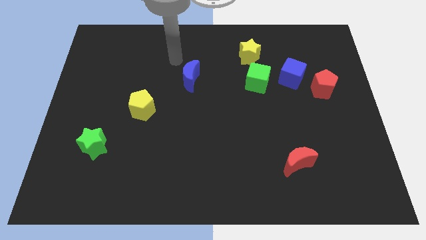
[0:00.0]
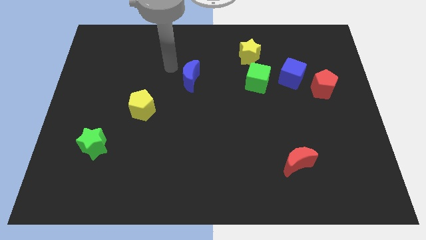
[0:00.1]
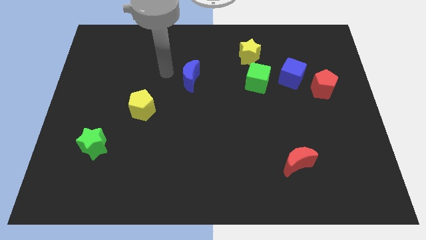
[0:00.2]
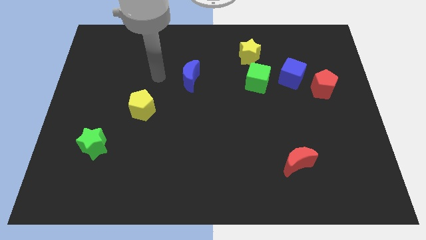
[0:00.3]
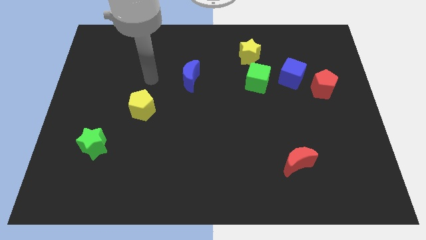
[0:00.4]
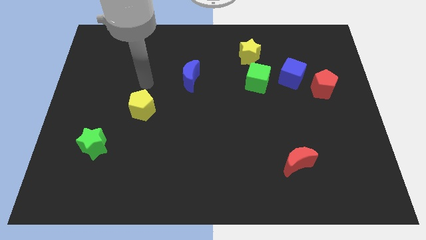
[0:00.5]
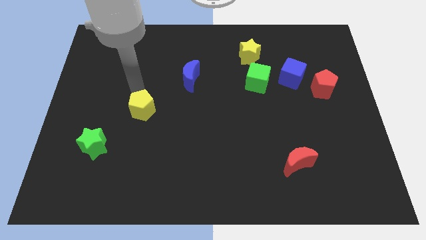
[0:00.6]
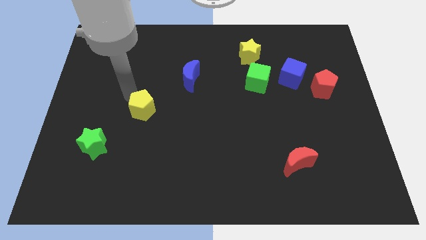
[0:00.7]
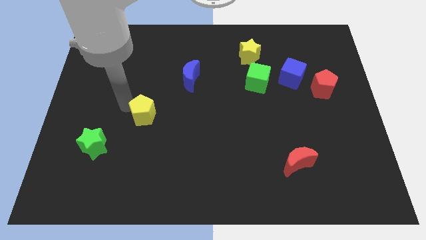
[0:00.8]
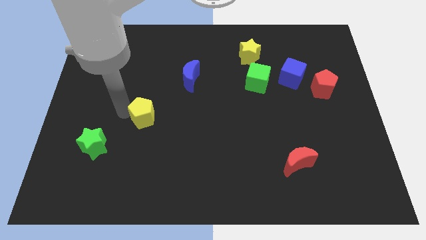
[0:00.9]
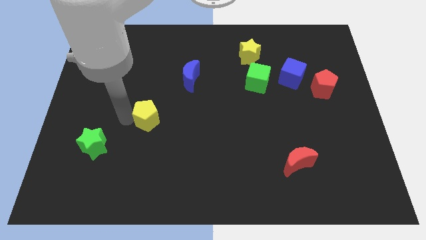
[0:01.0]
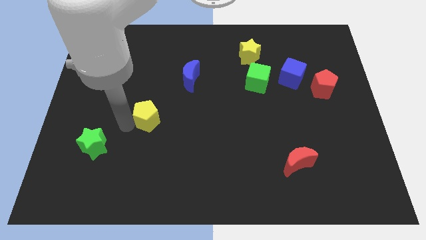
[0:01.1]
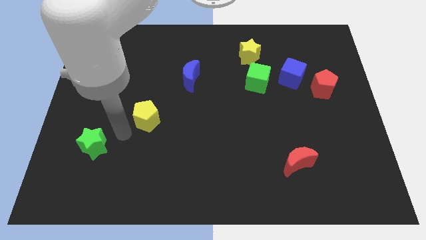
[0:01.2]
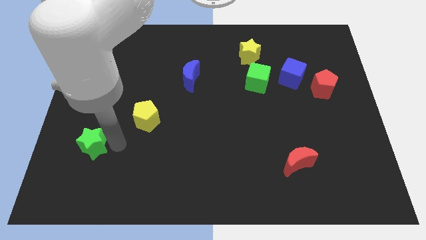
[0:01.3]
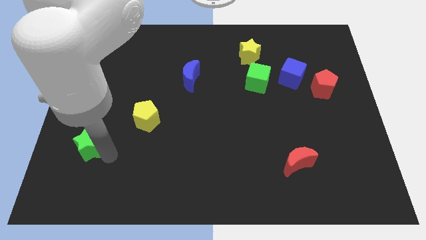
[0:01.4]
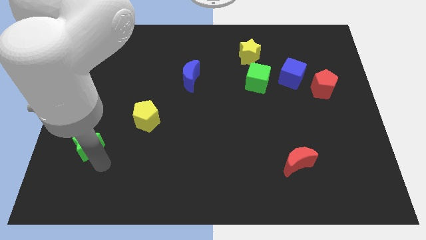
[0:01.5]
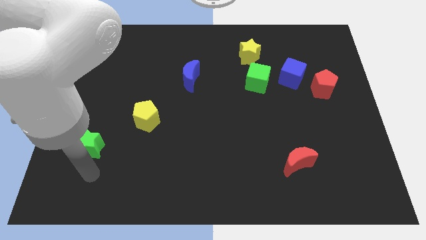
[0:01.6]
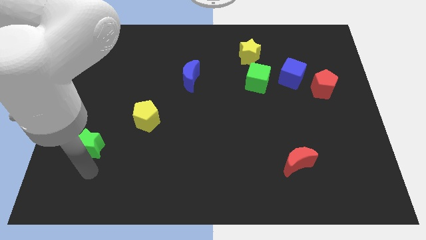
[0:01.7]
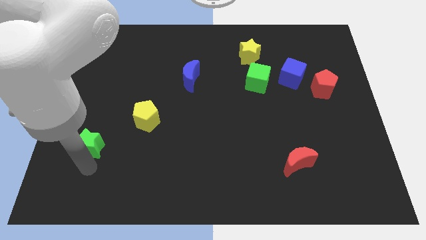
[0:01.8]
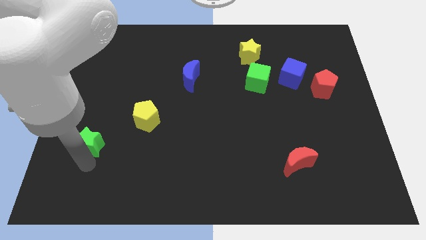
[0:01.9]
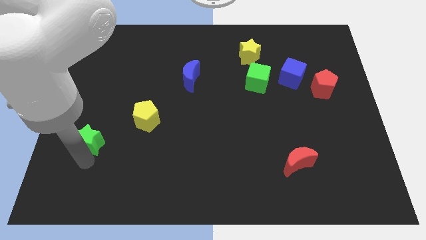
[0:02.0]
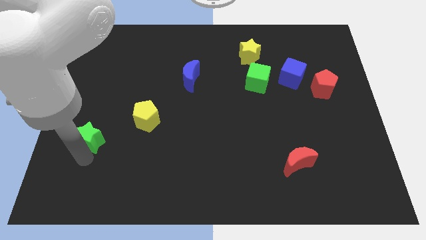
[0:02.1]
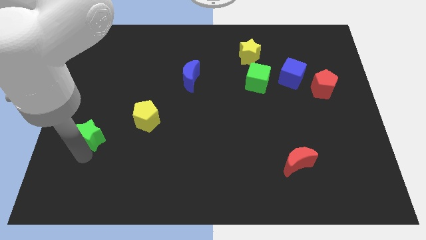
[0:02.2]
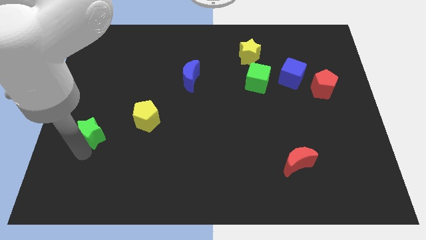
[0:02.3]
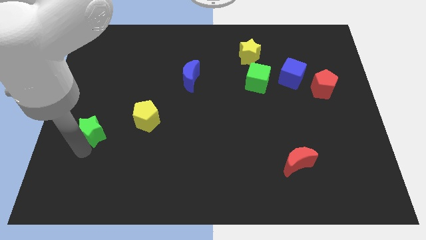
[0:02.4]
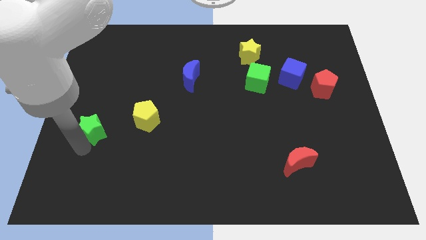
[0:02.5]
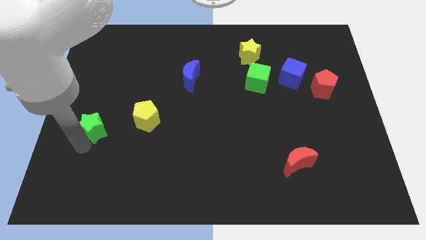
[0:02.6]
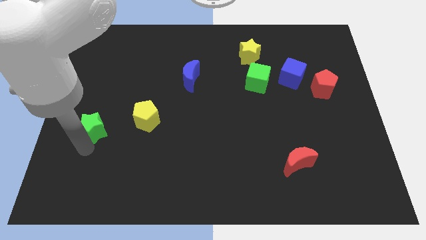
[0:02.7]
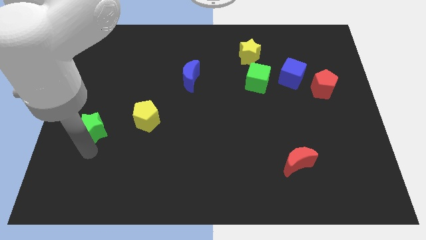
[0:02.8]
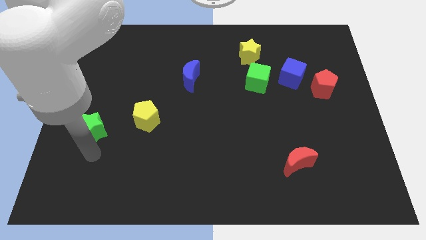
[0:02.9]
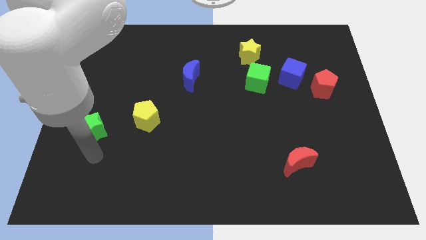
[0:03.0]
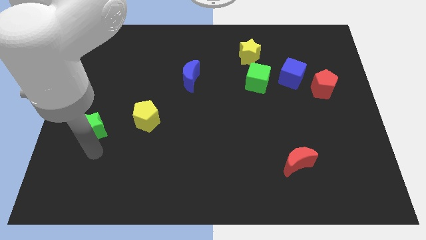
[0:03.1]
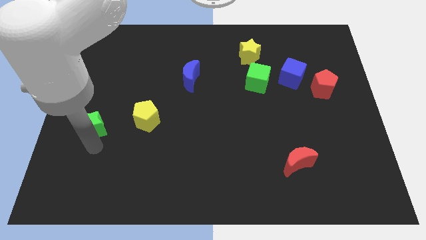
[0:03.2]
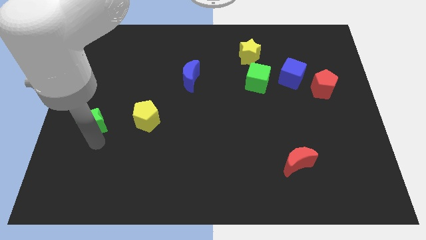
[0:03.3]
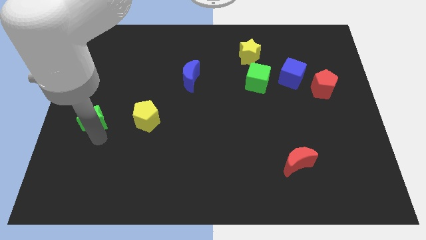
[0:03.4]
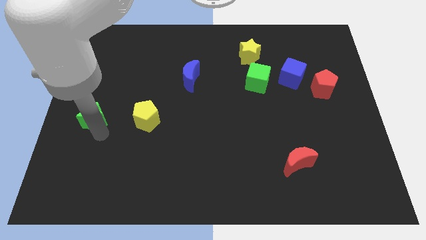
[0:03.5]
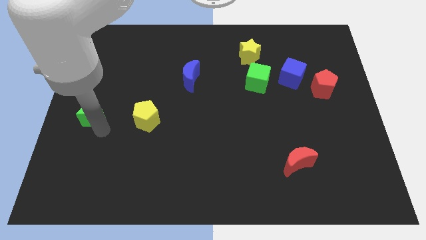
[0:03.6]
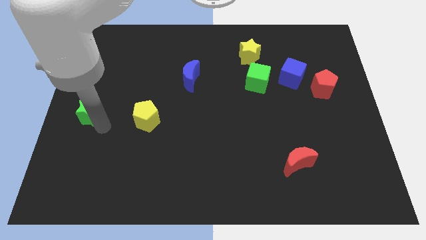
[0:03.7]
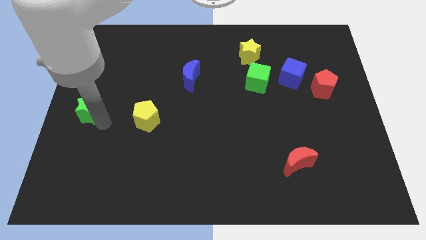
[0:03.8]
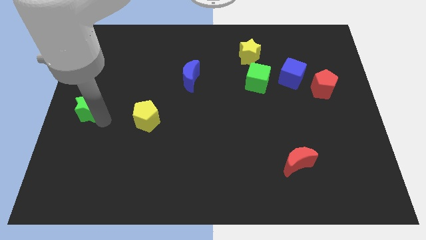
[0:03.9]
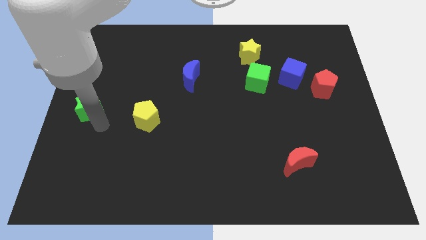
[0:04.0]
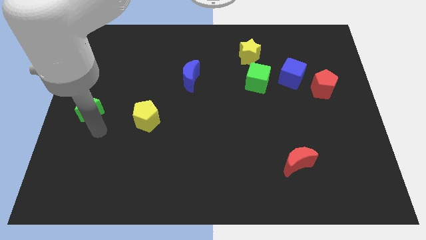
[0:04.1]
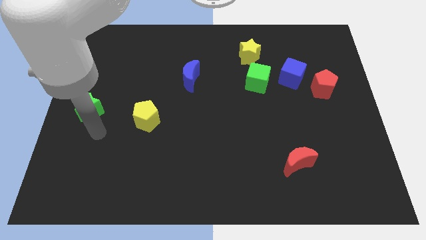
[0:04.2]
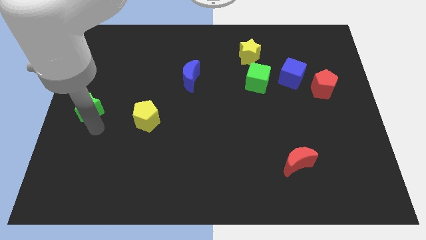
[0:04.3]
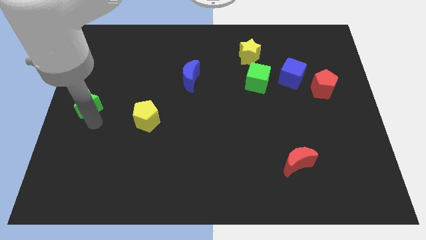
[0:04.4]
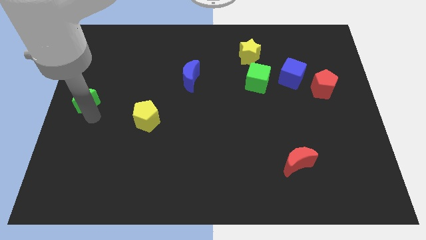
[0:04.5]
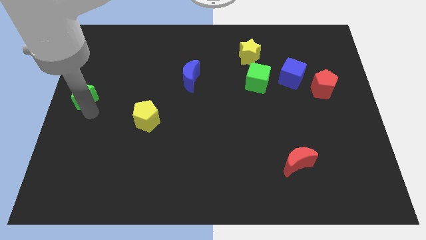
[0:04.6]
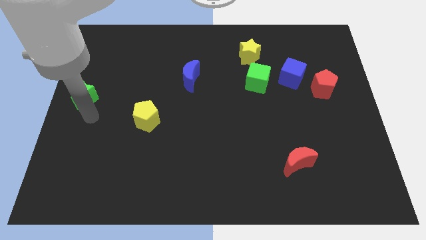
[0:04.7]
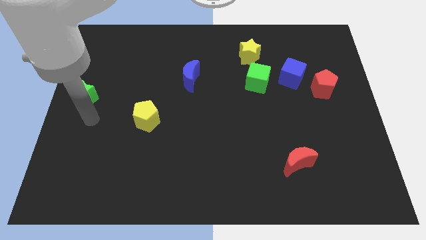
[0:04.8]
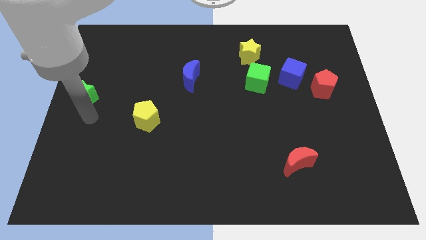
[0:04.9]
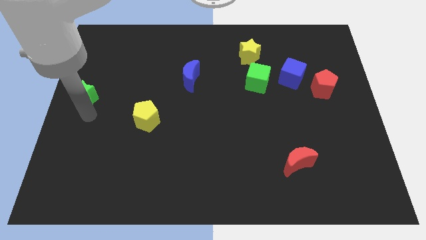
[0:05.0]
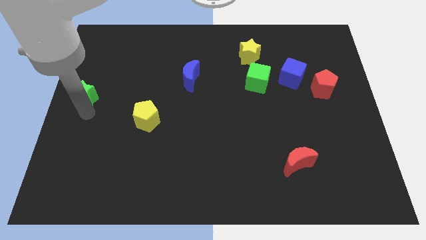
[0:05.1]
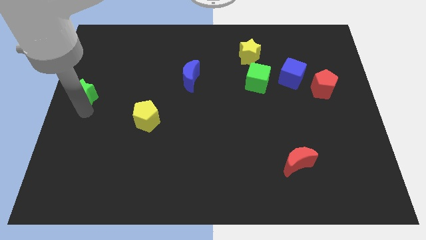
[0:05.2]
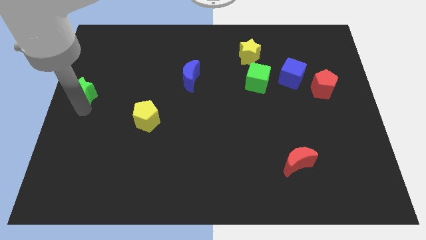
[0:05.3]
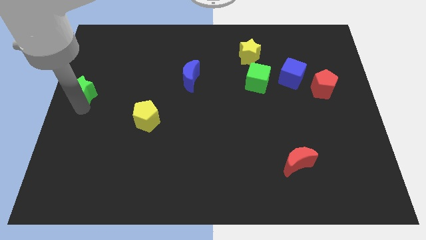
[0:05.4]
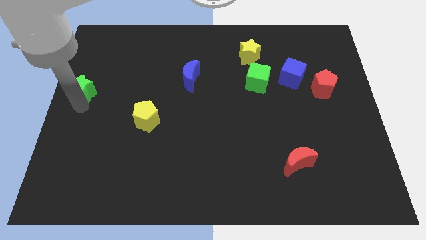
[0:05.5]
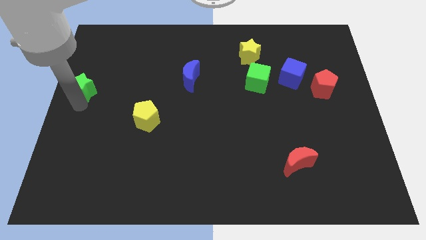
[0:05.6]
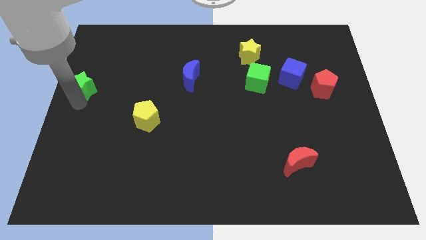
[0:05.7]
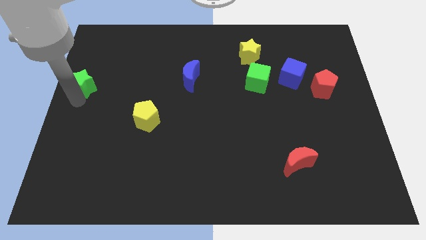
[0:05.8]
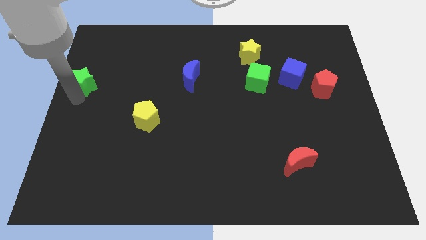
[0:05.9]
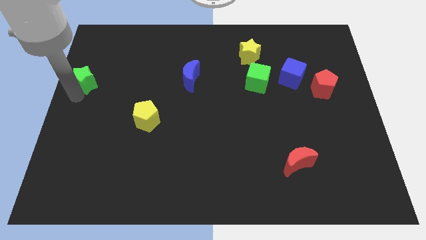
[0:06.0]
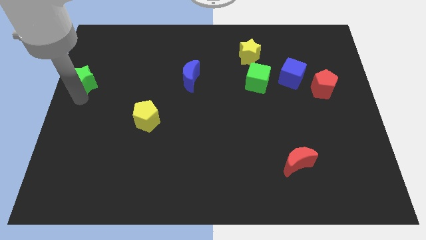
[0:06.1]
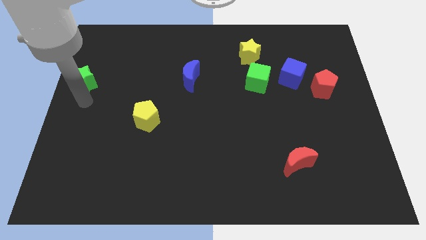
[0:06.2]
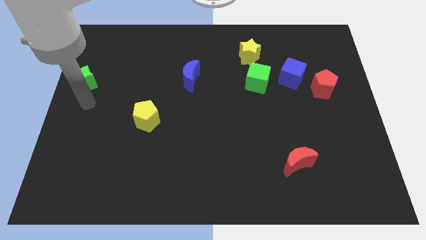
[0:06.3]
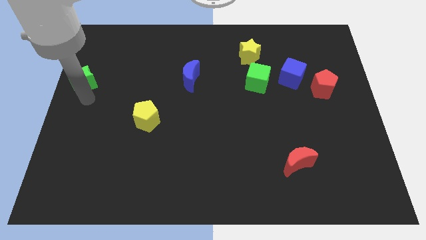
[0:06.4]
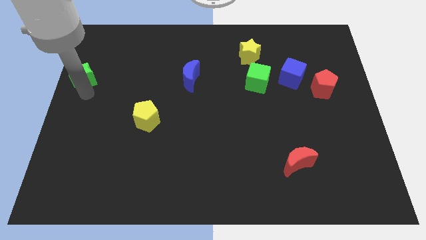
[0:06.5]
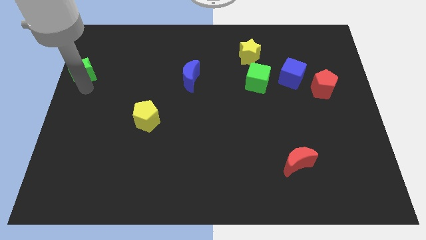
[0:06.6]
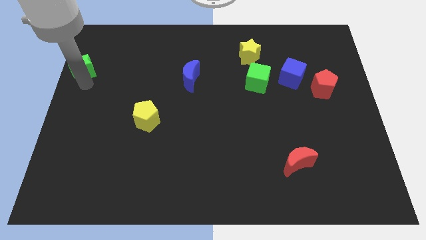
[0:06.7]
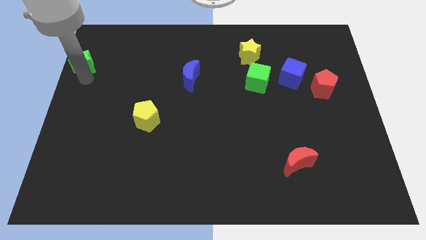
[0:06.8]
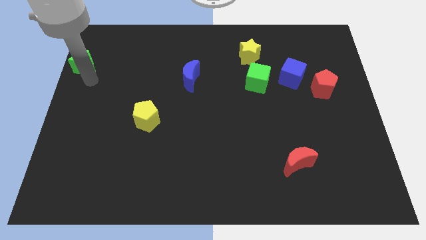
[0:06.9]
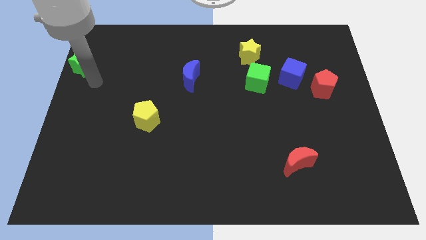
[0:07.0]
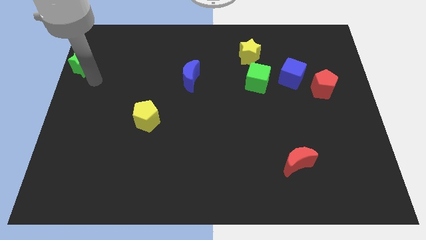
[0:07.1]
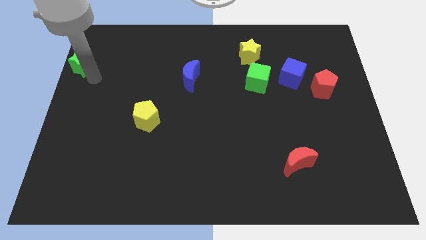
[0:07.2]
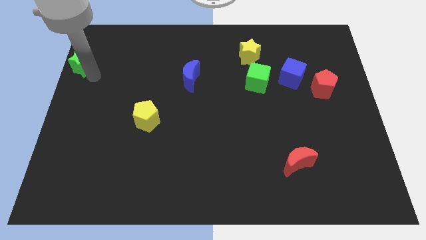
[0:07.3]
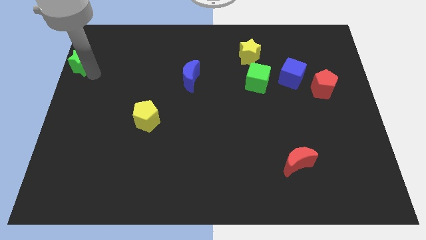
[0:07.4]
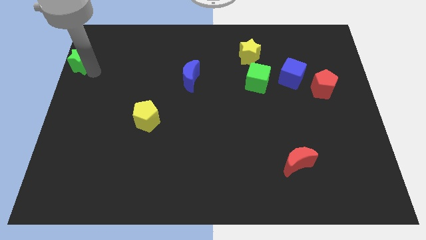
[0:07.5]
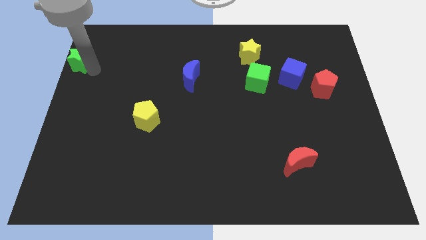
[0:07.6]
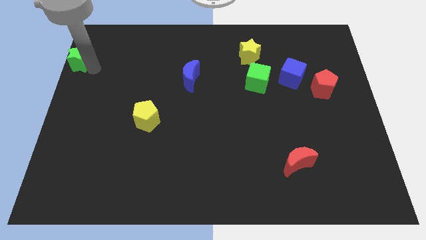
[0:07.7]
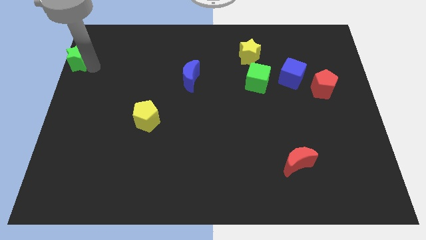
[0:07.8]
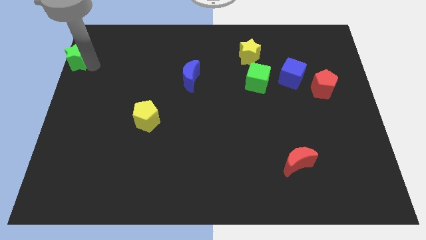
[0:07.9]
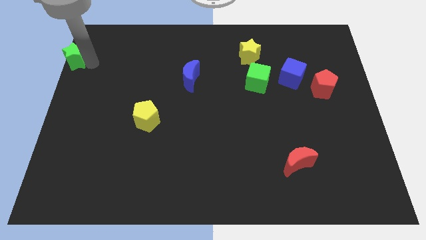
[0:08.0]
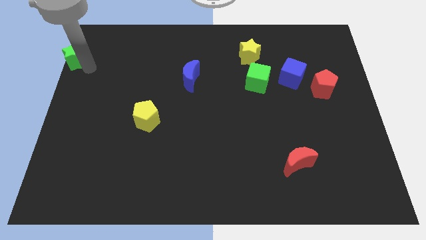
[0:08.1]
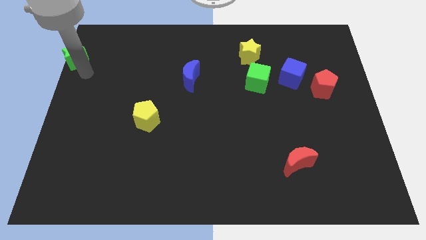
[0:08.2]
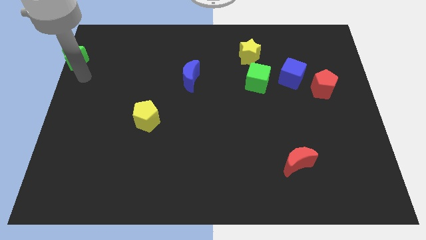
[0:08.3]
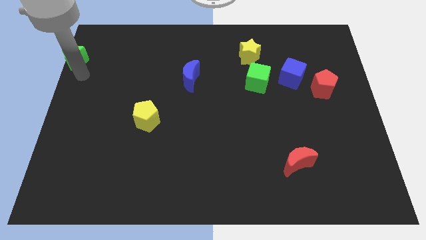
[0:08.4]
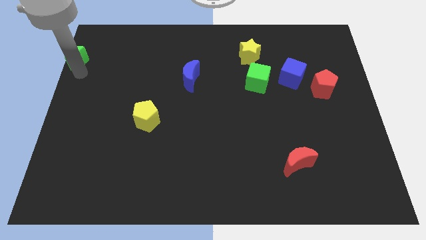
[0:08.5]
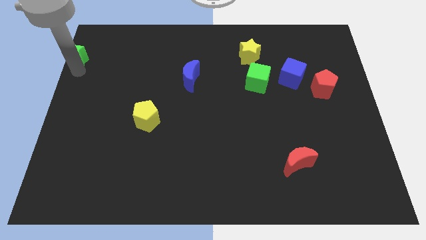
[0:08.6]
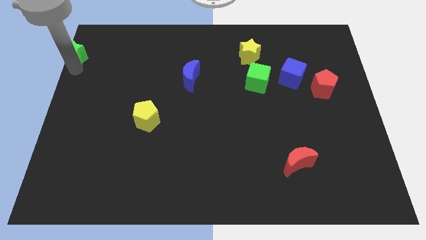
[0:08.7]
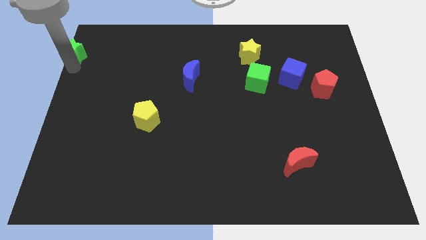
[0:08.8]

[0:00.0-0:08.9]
move the green star to the top left corner
